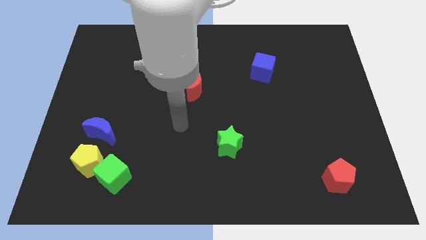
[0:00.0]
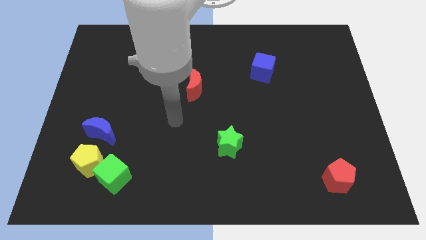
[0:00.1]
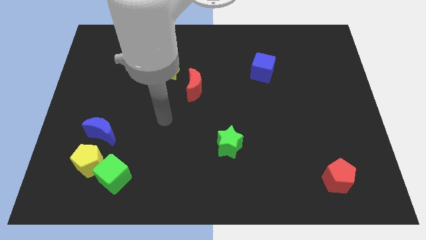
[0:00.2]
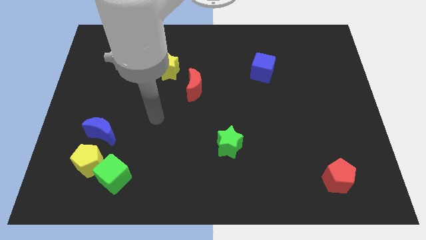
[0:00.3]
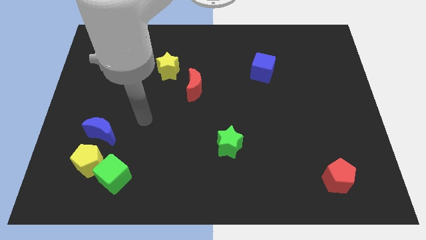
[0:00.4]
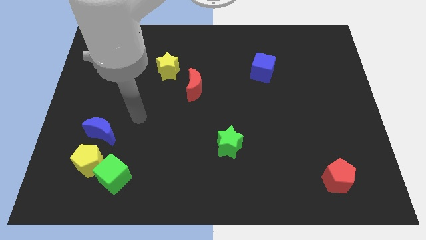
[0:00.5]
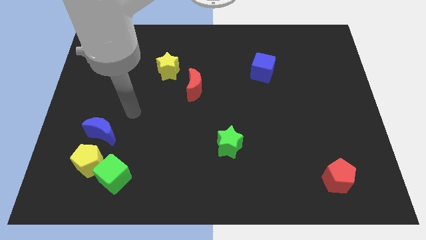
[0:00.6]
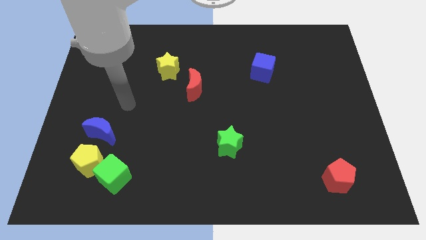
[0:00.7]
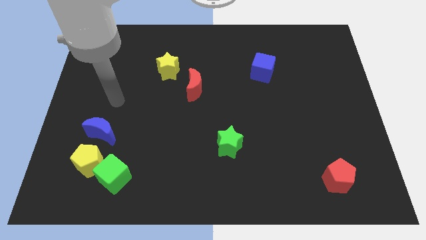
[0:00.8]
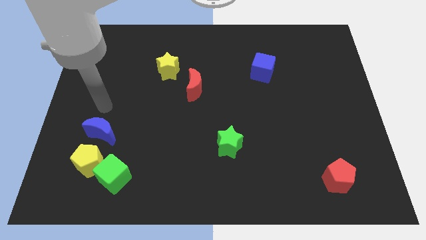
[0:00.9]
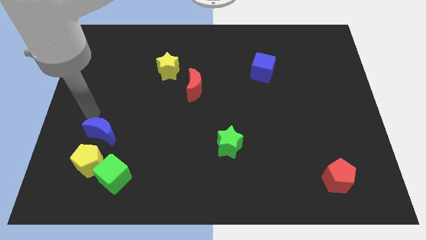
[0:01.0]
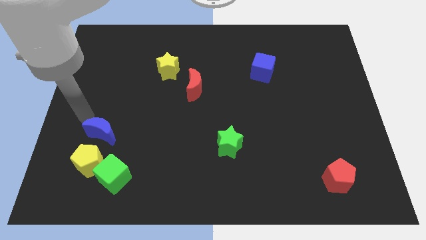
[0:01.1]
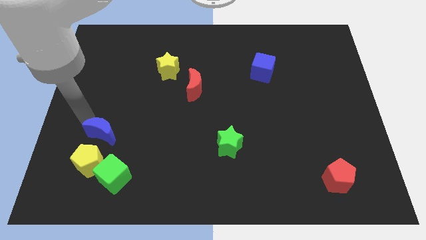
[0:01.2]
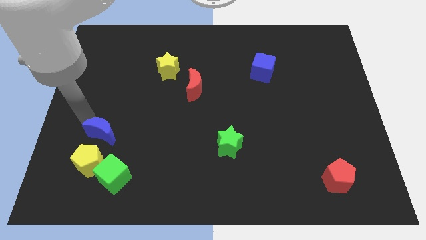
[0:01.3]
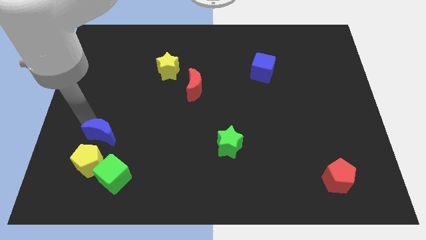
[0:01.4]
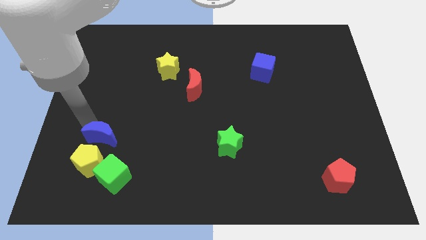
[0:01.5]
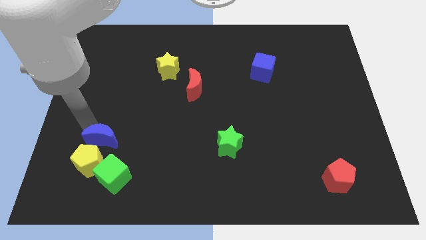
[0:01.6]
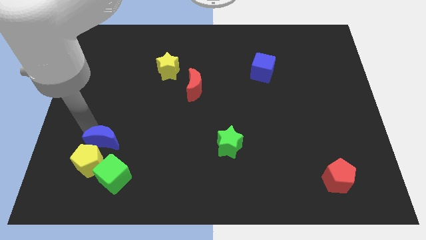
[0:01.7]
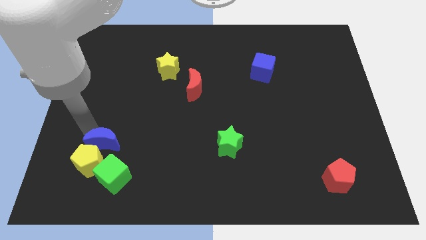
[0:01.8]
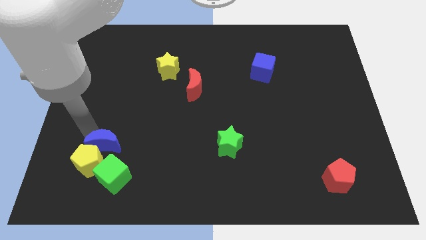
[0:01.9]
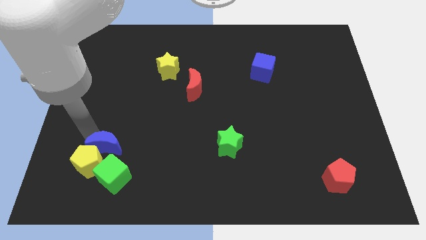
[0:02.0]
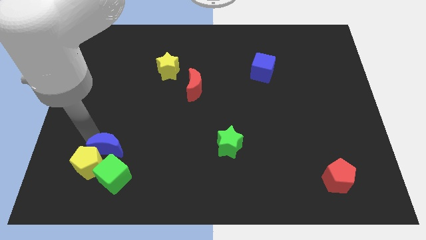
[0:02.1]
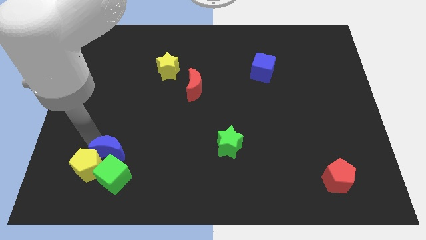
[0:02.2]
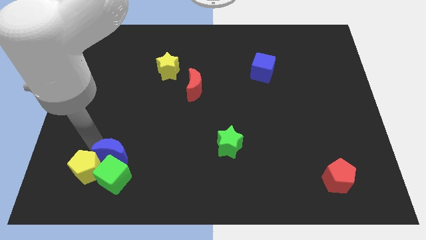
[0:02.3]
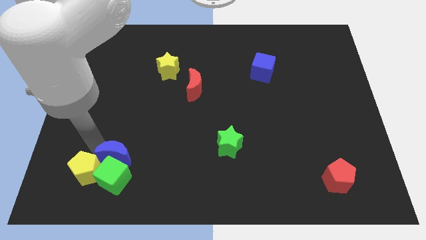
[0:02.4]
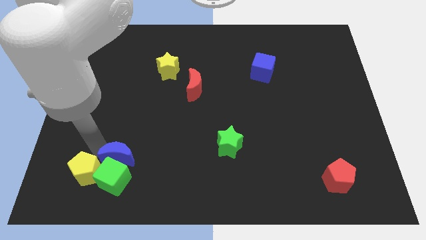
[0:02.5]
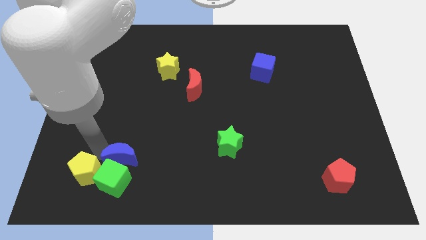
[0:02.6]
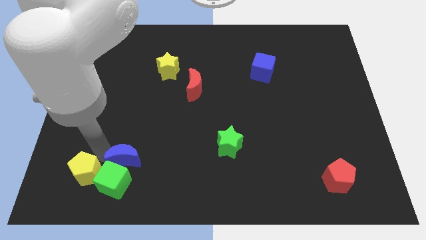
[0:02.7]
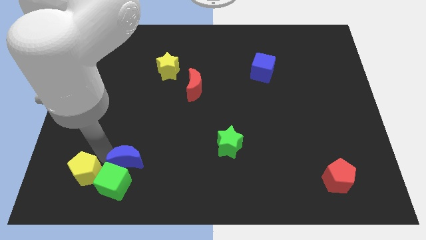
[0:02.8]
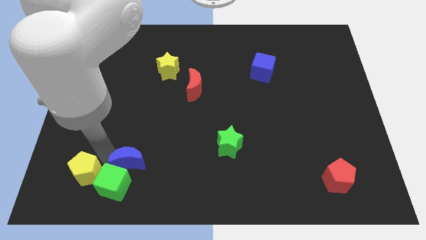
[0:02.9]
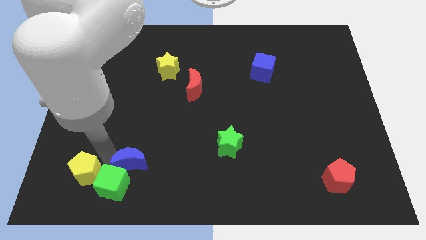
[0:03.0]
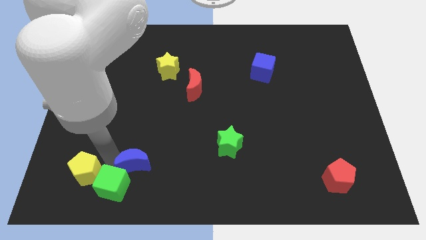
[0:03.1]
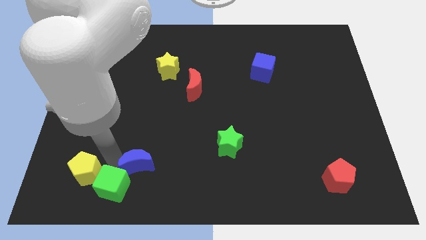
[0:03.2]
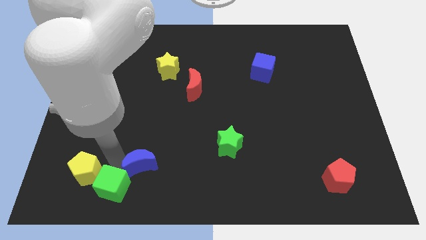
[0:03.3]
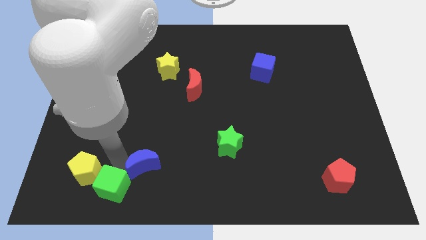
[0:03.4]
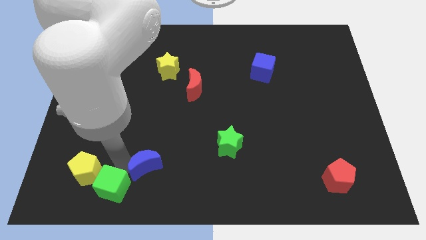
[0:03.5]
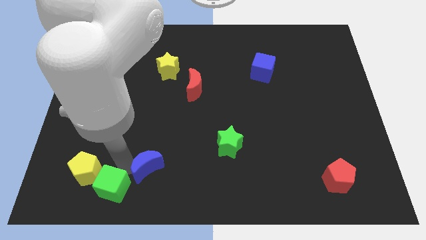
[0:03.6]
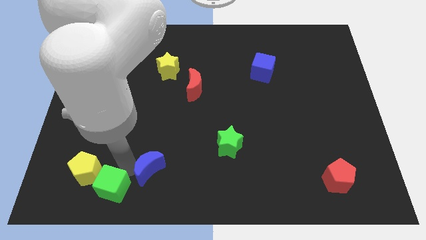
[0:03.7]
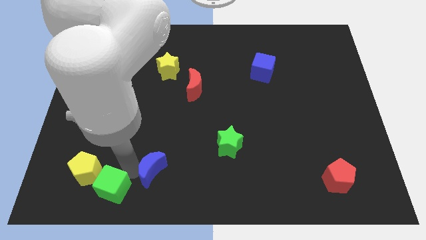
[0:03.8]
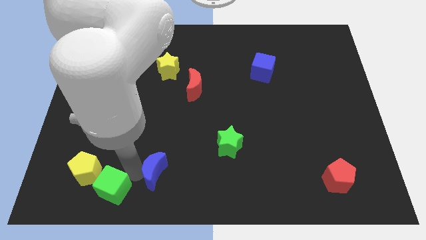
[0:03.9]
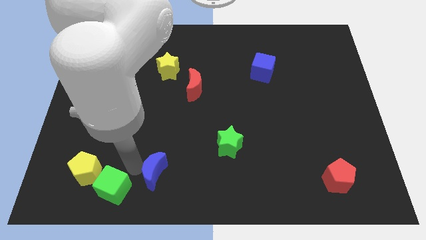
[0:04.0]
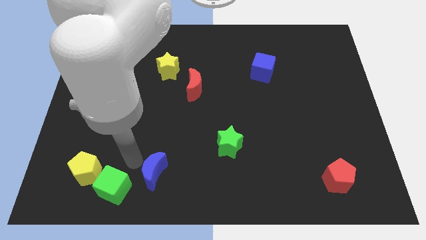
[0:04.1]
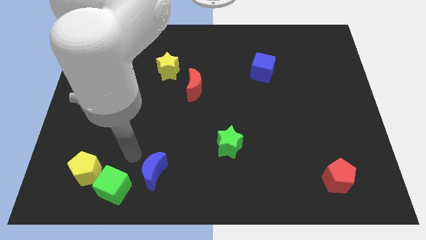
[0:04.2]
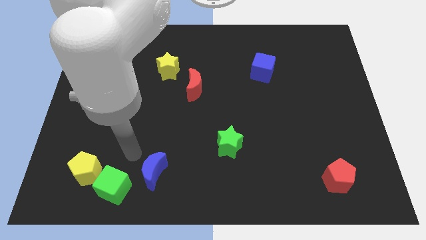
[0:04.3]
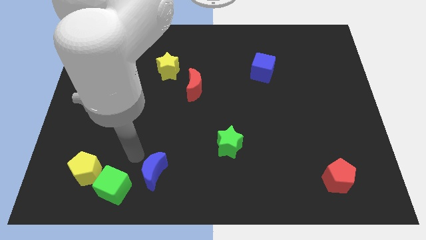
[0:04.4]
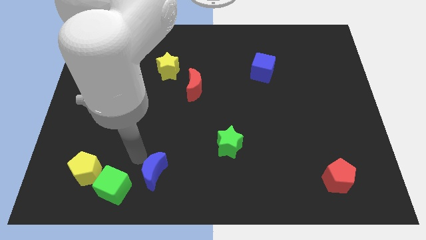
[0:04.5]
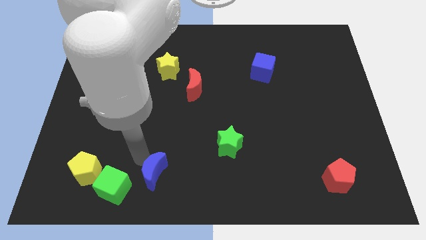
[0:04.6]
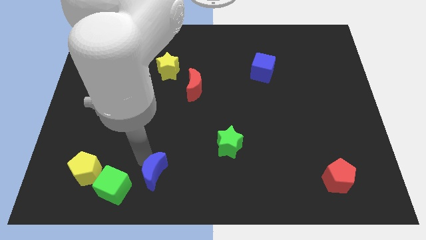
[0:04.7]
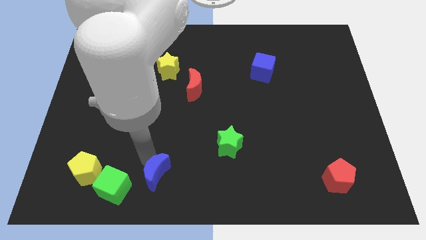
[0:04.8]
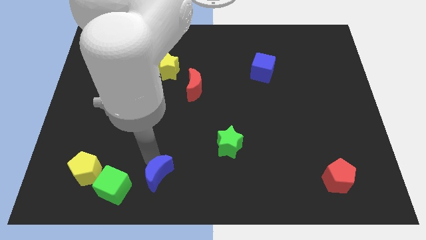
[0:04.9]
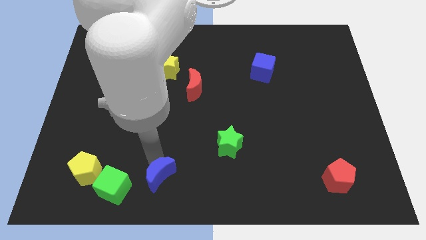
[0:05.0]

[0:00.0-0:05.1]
move the blue moon to the bottom side

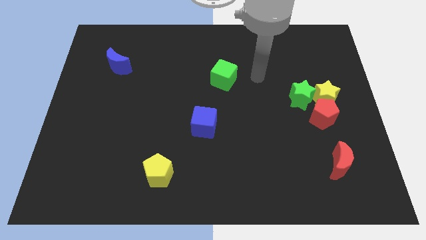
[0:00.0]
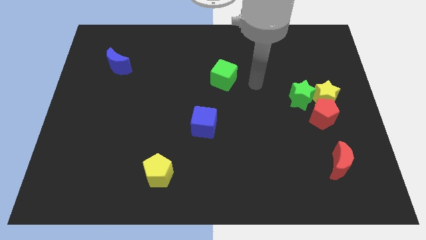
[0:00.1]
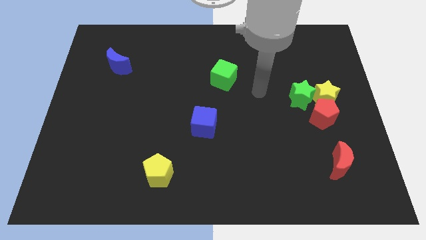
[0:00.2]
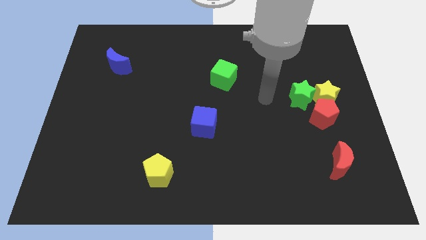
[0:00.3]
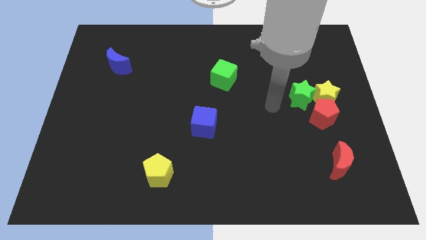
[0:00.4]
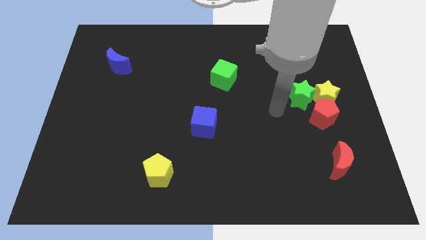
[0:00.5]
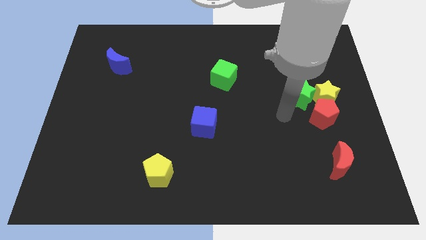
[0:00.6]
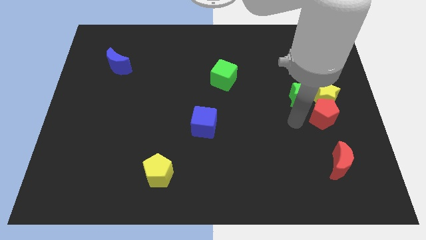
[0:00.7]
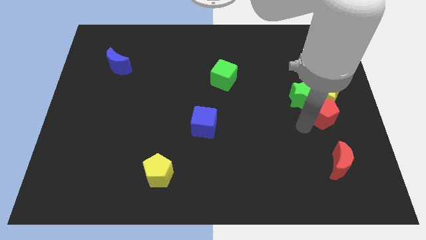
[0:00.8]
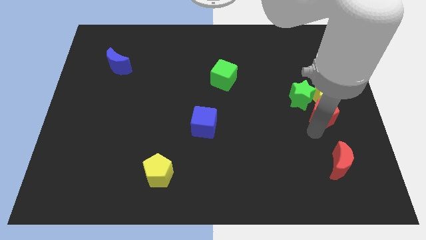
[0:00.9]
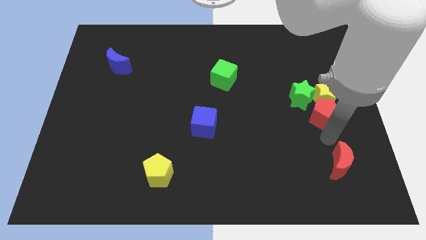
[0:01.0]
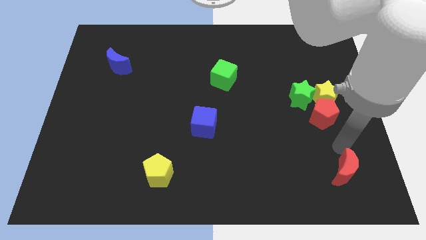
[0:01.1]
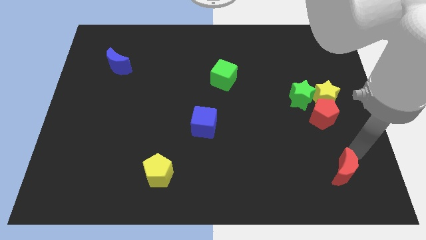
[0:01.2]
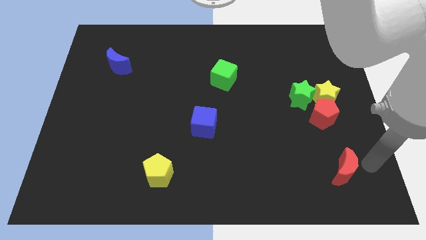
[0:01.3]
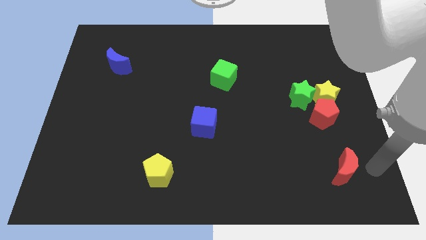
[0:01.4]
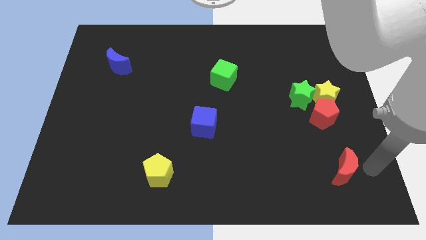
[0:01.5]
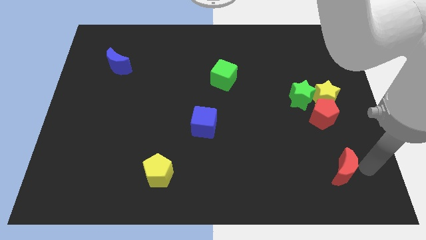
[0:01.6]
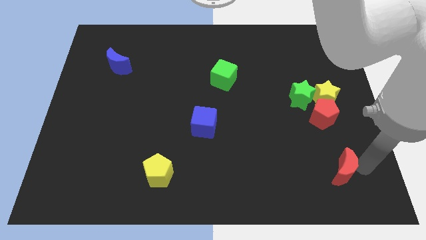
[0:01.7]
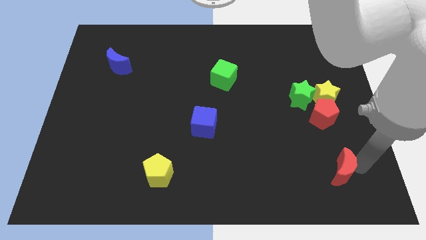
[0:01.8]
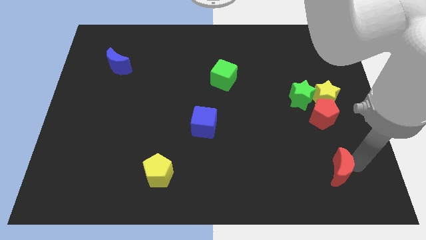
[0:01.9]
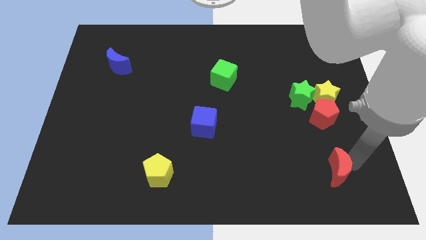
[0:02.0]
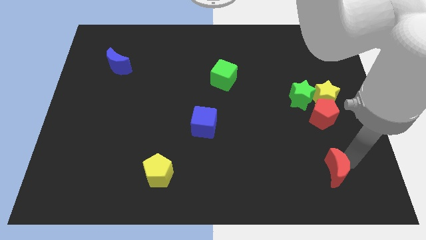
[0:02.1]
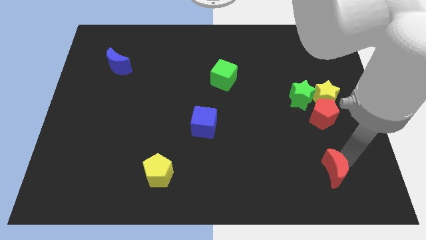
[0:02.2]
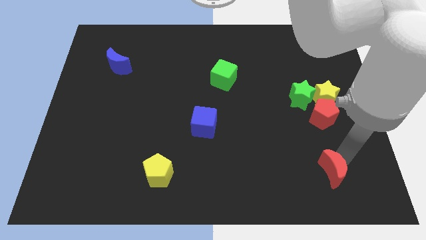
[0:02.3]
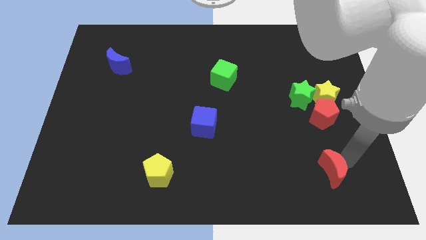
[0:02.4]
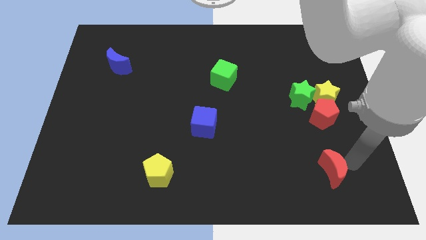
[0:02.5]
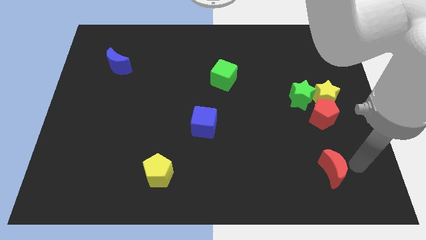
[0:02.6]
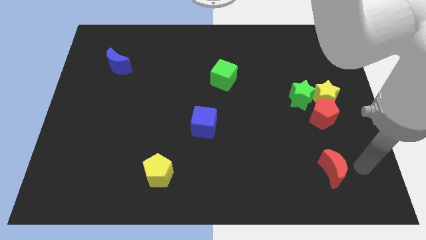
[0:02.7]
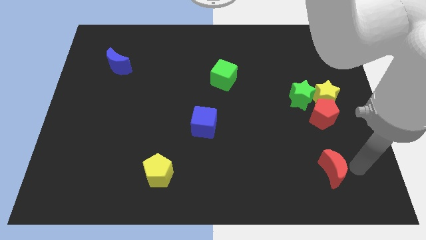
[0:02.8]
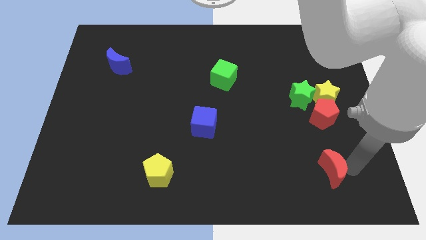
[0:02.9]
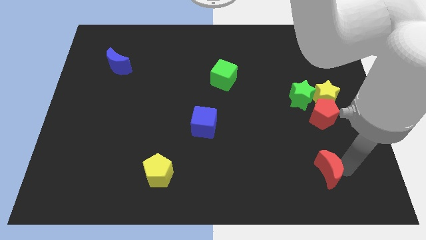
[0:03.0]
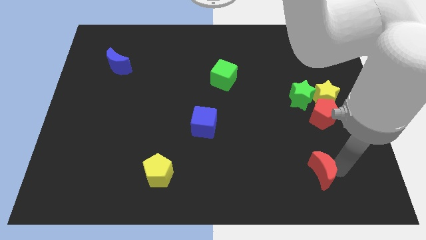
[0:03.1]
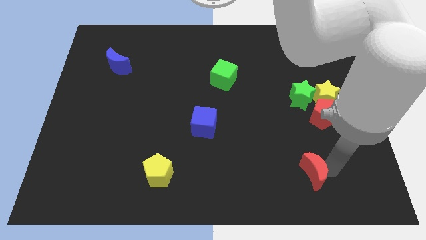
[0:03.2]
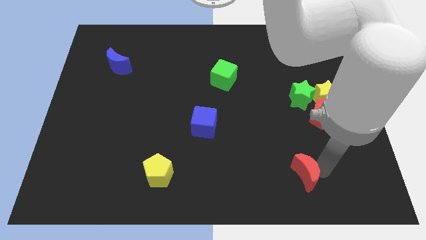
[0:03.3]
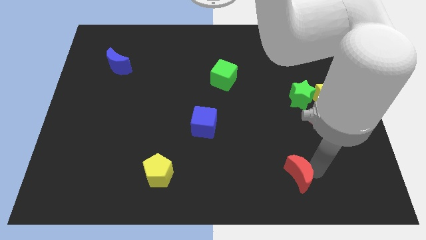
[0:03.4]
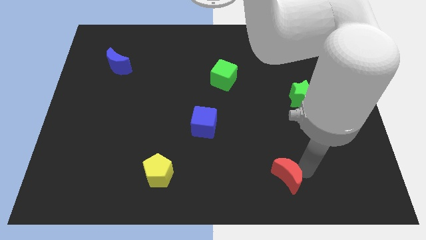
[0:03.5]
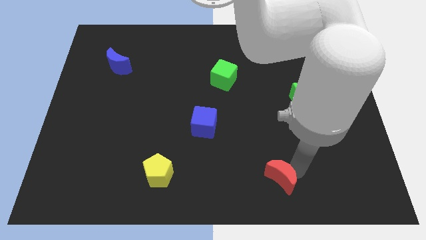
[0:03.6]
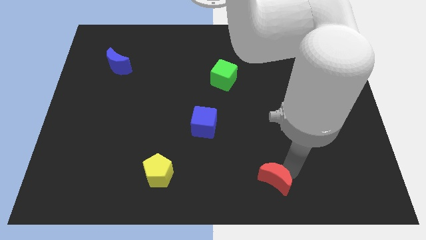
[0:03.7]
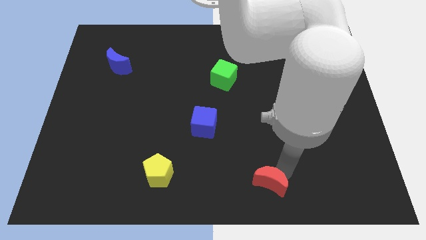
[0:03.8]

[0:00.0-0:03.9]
slide the red moon to the bottom
